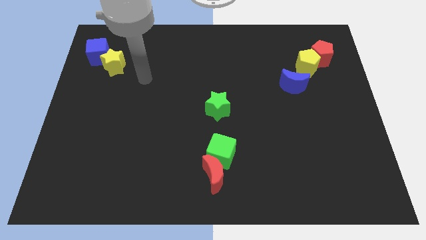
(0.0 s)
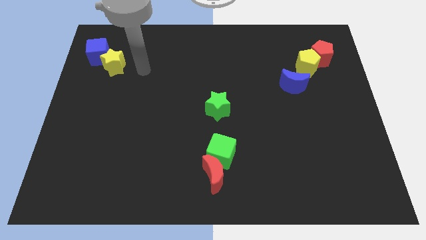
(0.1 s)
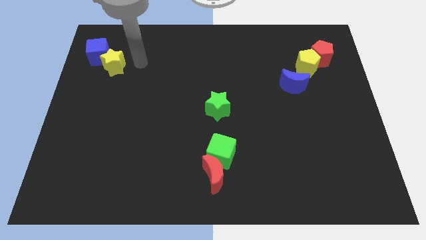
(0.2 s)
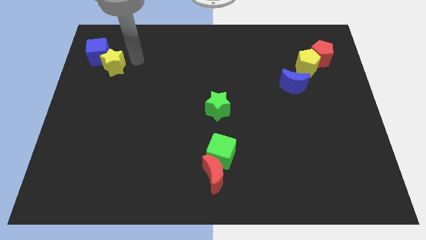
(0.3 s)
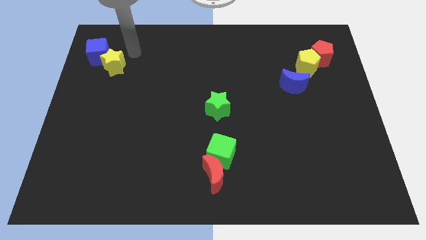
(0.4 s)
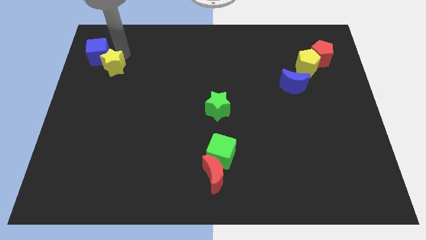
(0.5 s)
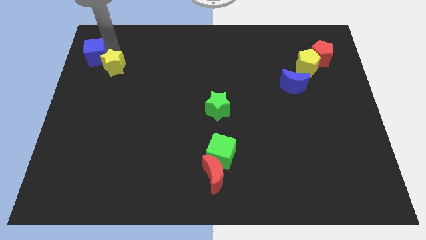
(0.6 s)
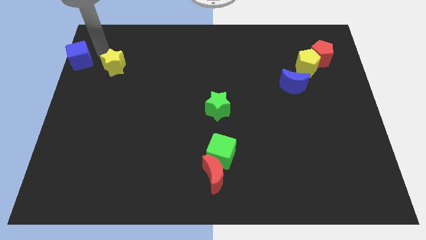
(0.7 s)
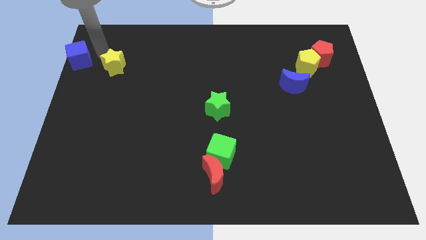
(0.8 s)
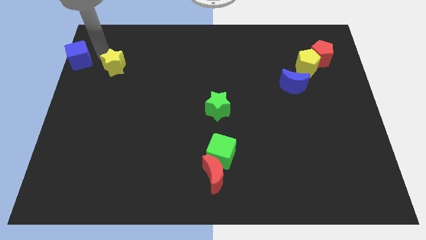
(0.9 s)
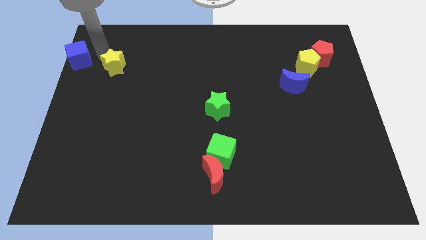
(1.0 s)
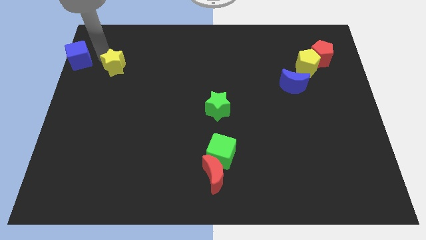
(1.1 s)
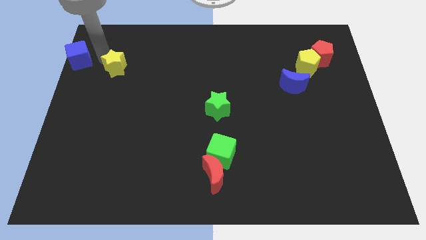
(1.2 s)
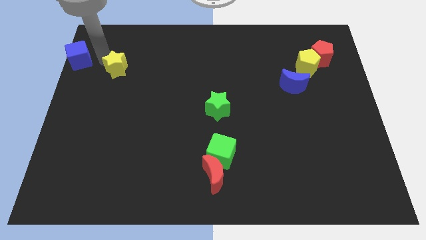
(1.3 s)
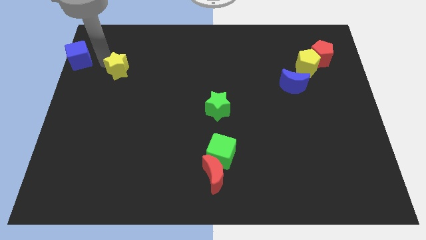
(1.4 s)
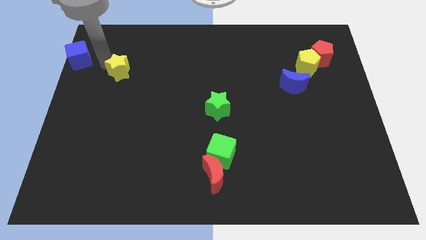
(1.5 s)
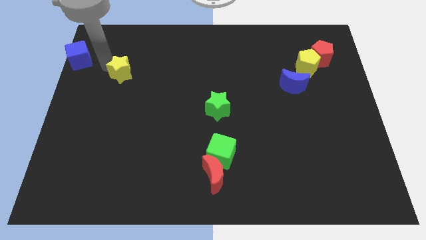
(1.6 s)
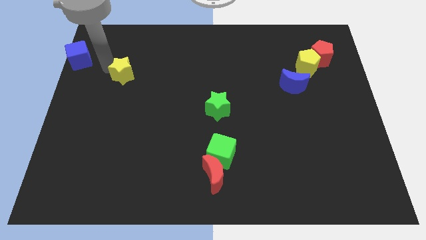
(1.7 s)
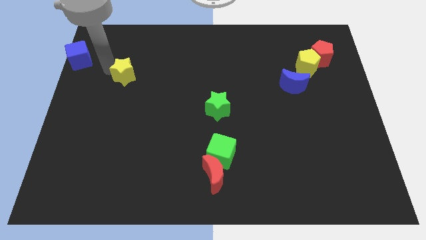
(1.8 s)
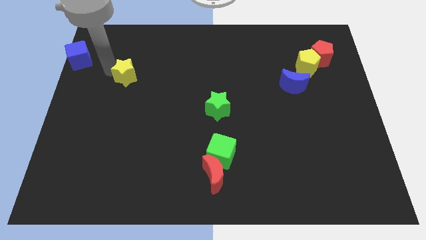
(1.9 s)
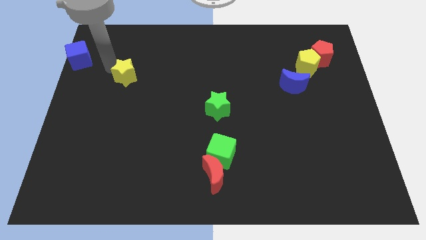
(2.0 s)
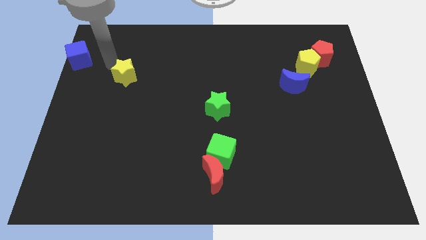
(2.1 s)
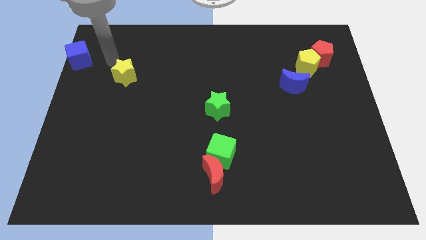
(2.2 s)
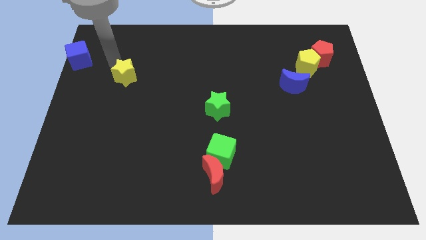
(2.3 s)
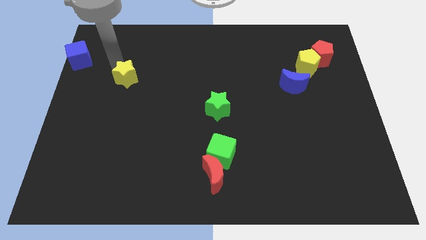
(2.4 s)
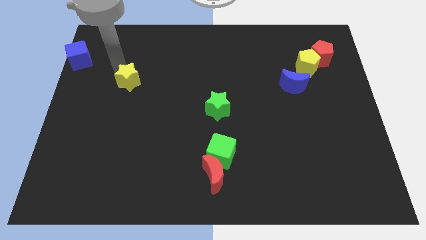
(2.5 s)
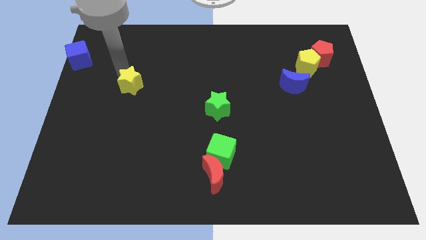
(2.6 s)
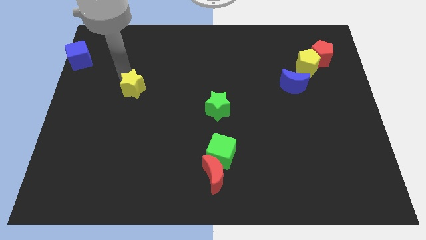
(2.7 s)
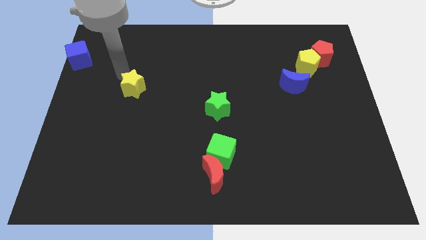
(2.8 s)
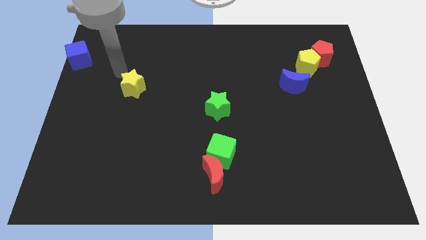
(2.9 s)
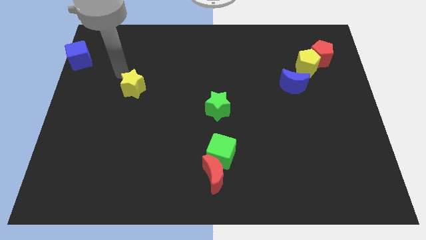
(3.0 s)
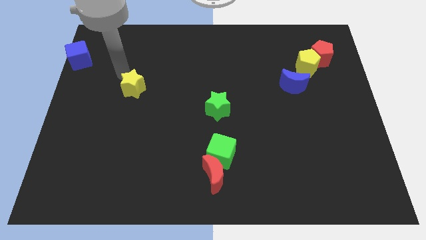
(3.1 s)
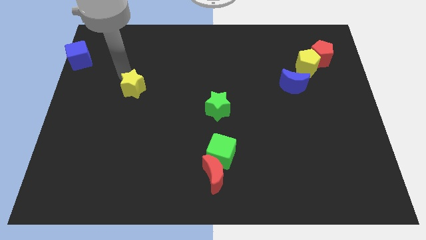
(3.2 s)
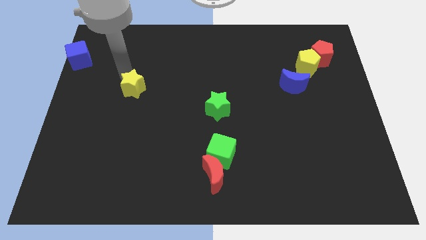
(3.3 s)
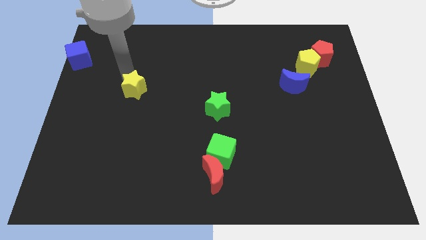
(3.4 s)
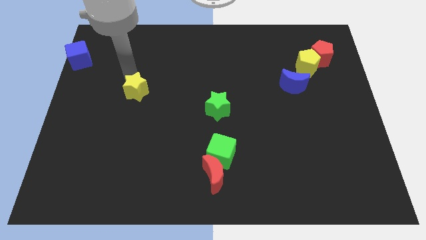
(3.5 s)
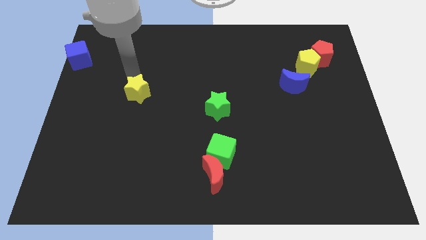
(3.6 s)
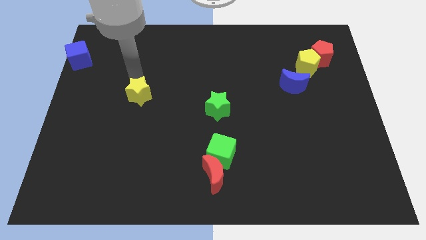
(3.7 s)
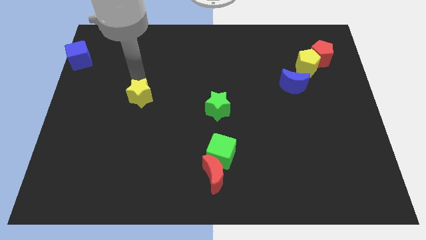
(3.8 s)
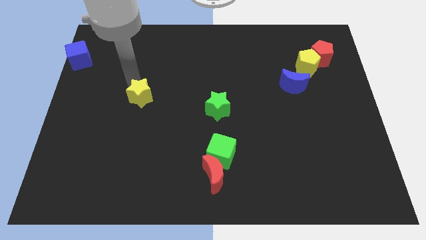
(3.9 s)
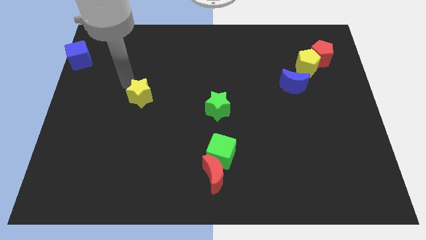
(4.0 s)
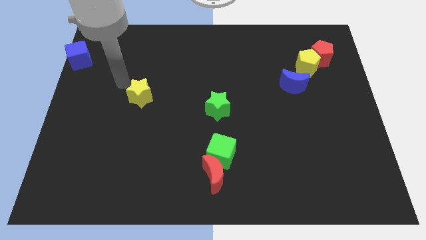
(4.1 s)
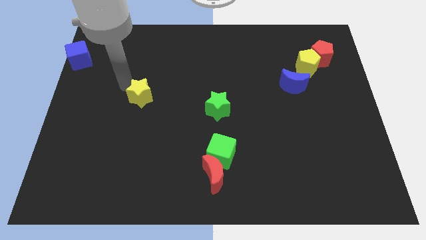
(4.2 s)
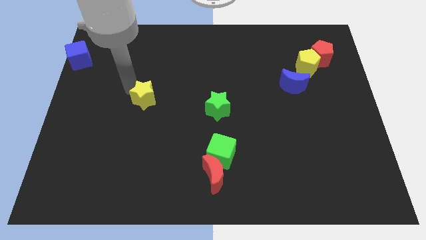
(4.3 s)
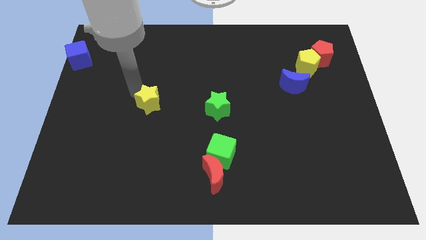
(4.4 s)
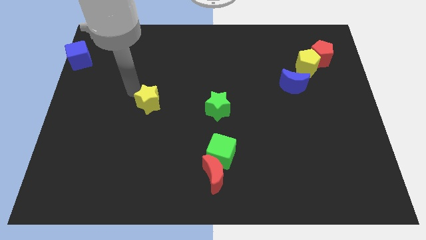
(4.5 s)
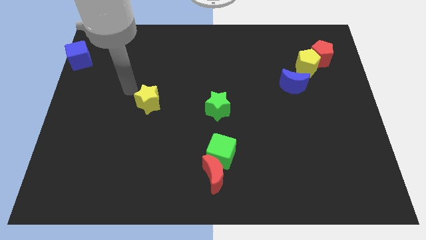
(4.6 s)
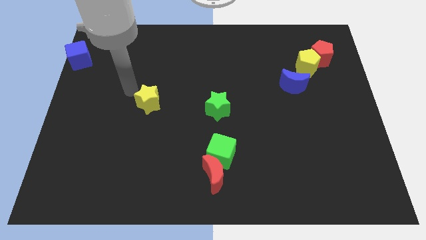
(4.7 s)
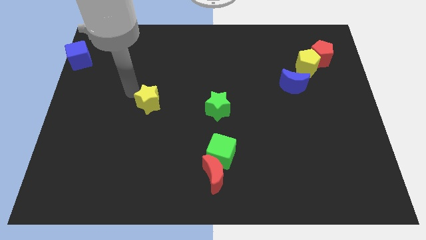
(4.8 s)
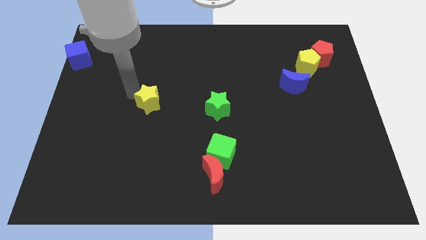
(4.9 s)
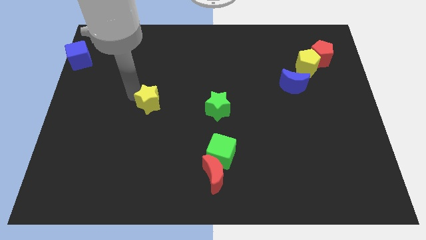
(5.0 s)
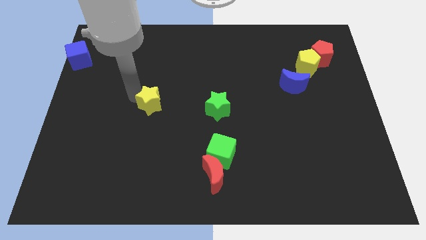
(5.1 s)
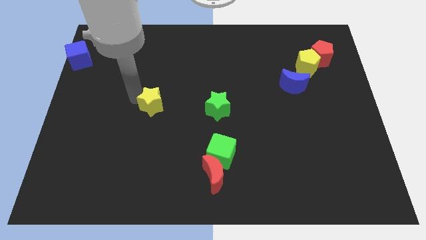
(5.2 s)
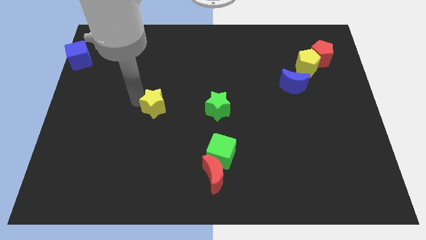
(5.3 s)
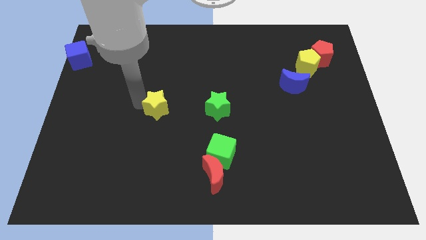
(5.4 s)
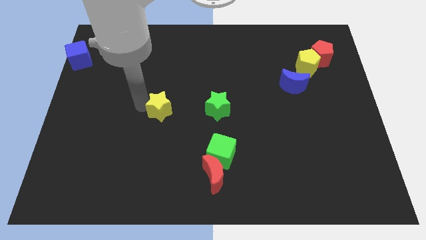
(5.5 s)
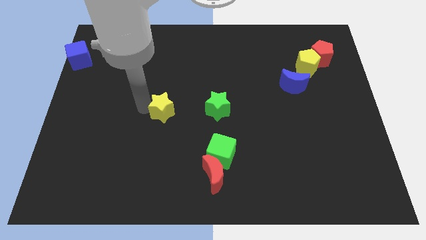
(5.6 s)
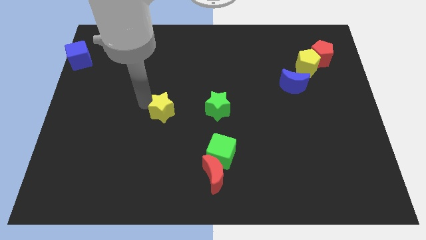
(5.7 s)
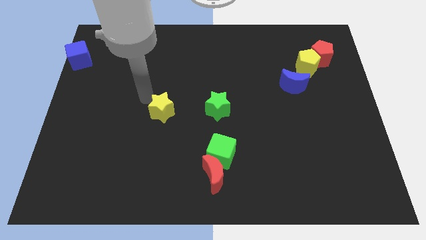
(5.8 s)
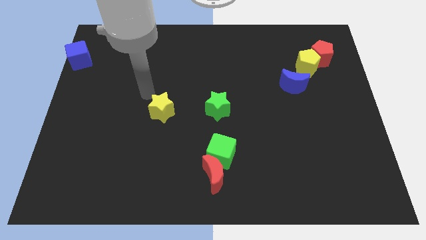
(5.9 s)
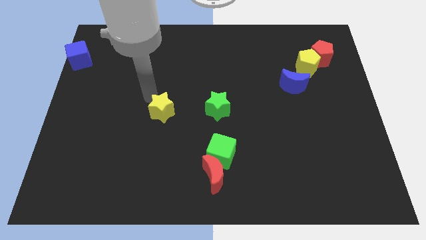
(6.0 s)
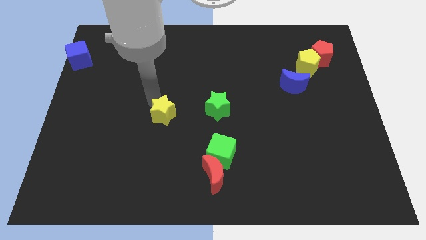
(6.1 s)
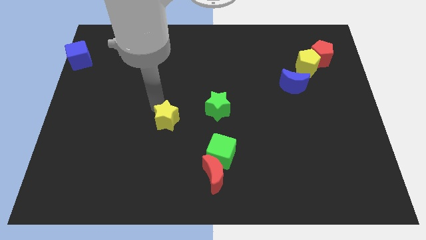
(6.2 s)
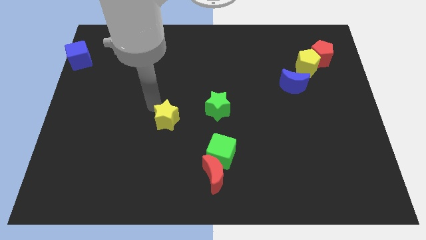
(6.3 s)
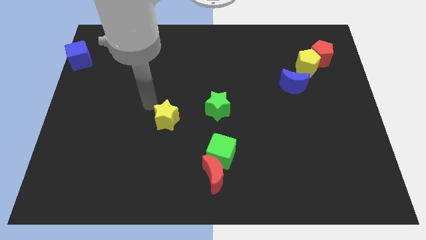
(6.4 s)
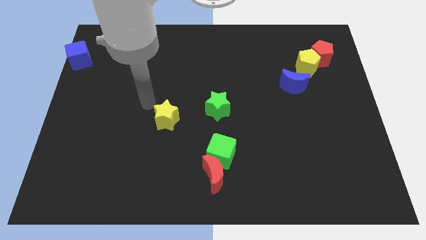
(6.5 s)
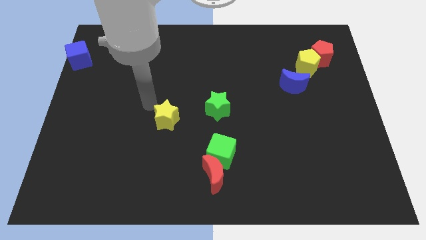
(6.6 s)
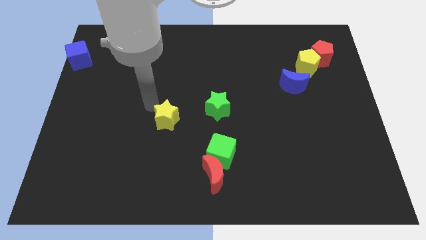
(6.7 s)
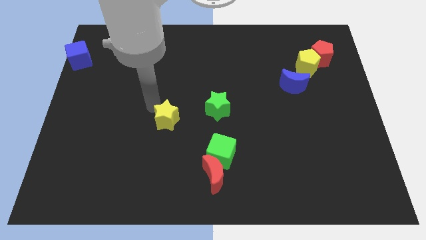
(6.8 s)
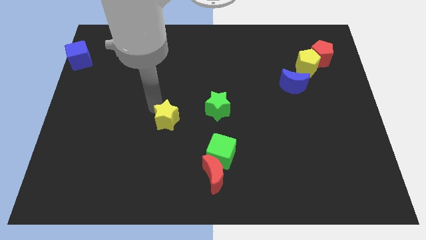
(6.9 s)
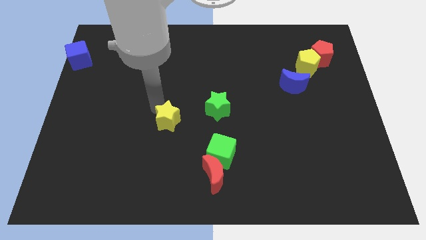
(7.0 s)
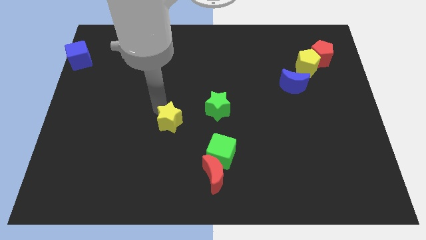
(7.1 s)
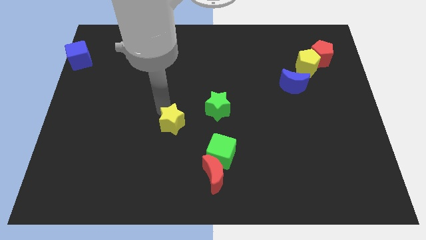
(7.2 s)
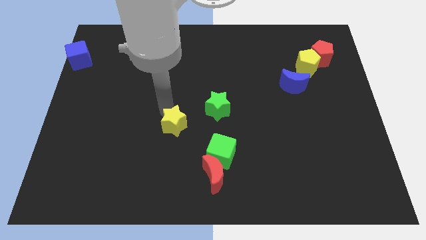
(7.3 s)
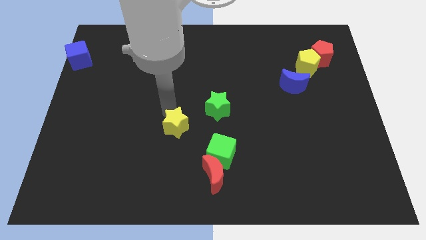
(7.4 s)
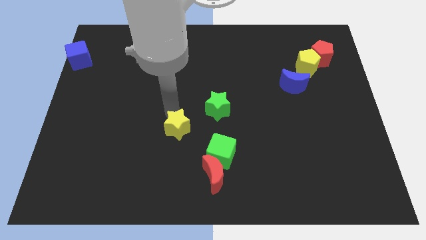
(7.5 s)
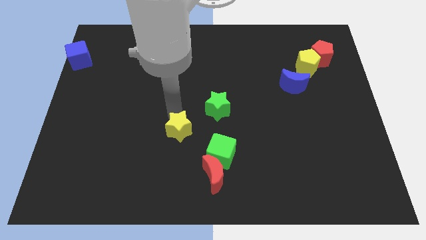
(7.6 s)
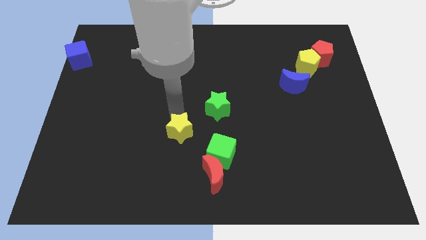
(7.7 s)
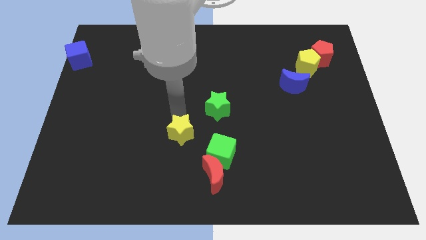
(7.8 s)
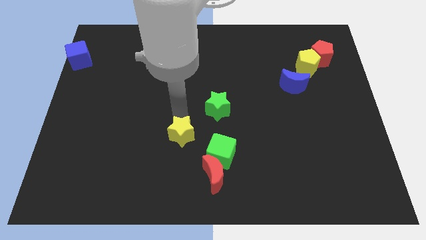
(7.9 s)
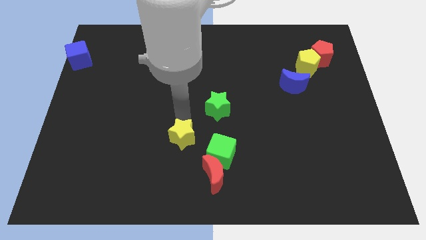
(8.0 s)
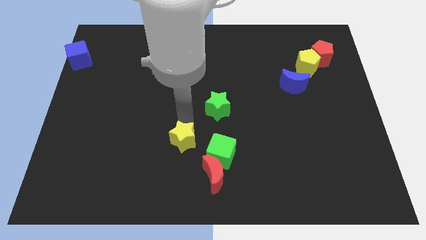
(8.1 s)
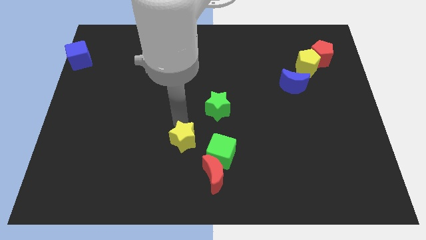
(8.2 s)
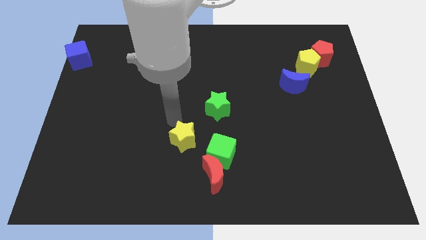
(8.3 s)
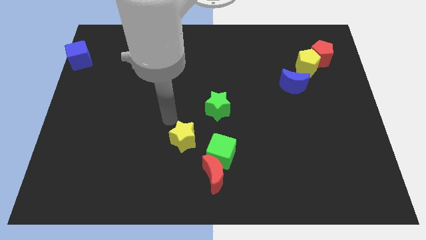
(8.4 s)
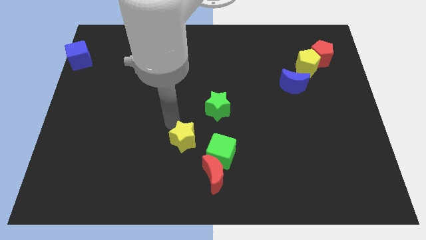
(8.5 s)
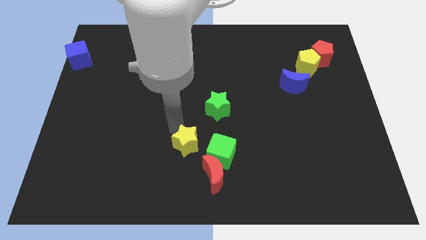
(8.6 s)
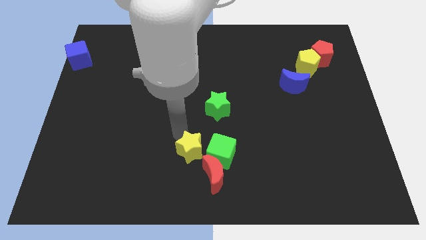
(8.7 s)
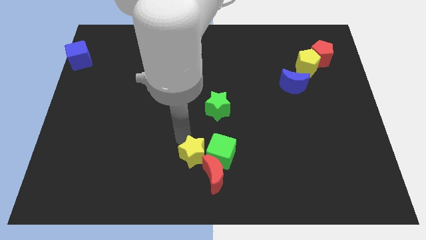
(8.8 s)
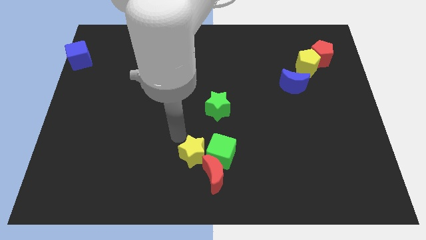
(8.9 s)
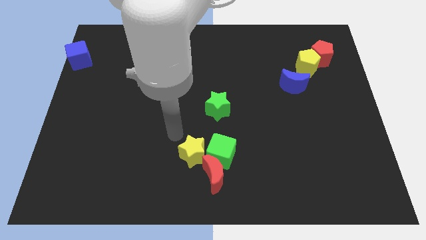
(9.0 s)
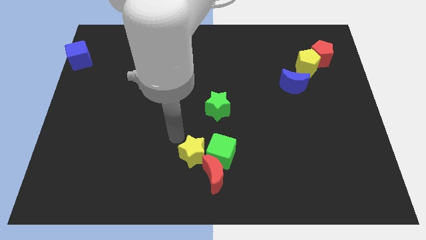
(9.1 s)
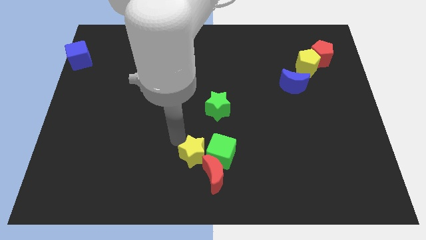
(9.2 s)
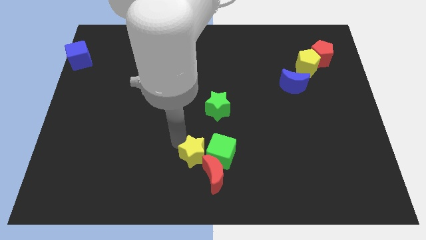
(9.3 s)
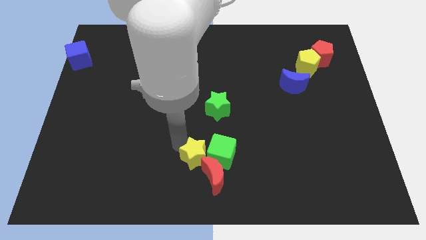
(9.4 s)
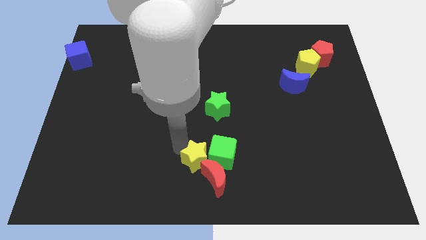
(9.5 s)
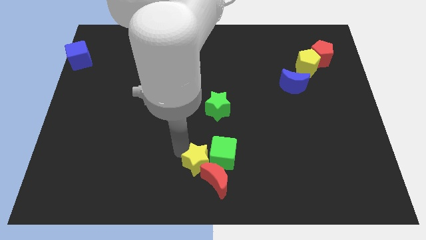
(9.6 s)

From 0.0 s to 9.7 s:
slide the yellow star towards the red moon
